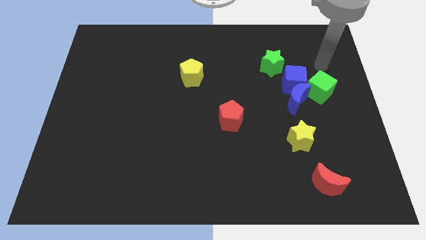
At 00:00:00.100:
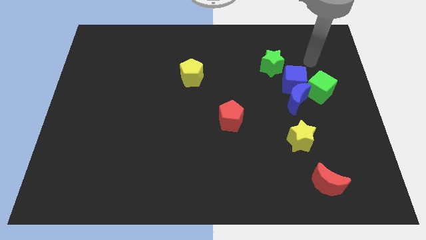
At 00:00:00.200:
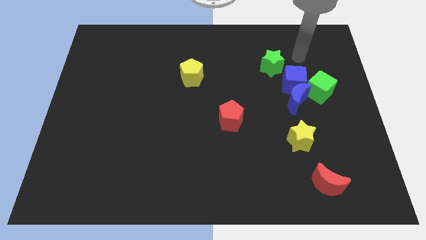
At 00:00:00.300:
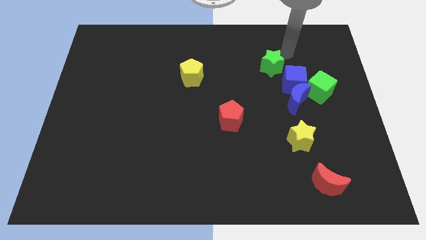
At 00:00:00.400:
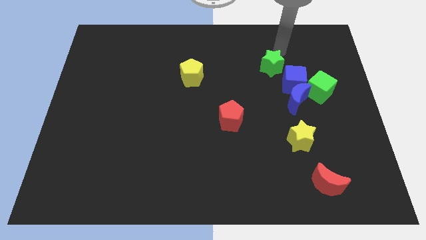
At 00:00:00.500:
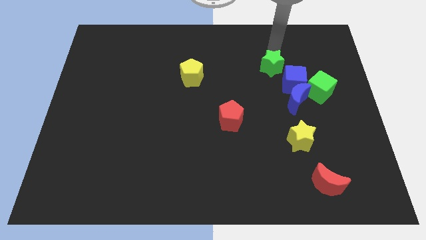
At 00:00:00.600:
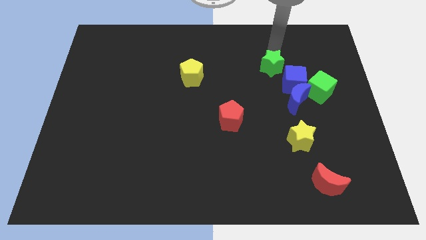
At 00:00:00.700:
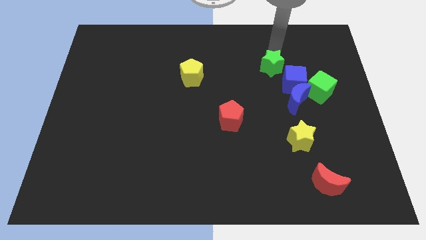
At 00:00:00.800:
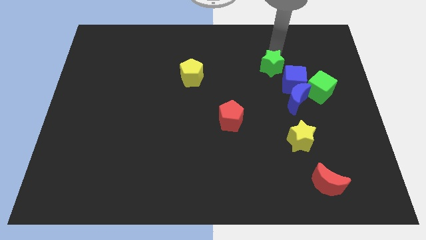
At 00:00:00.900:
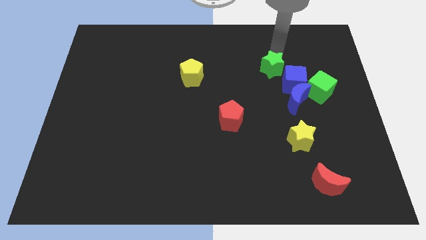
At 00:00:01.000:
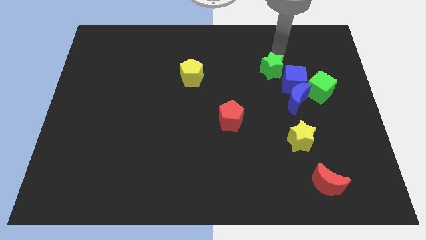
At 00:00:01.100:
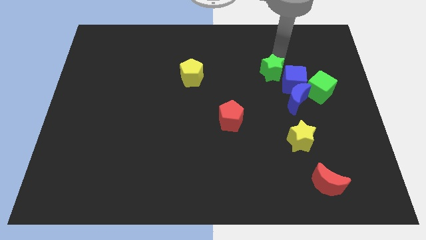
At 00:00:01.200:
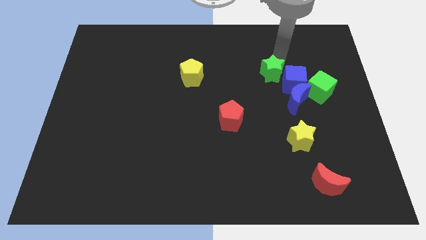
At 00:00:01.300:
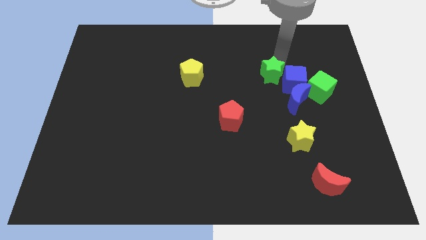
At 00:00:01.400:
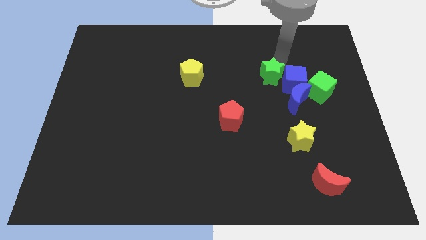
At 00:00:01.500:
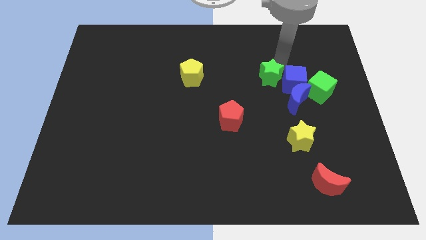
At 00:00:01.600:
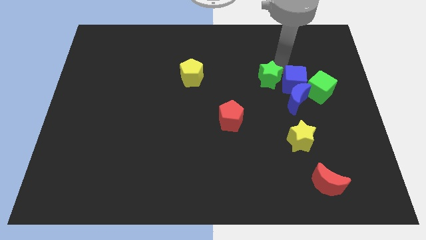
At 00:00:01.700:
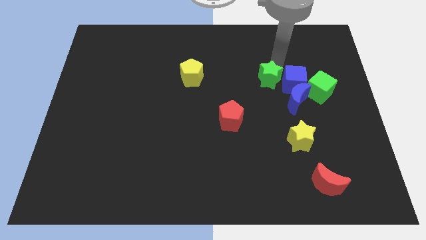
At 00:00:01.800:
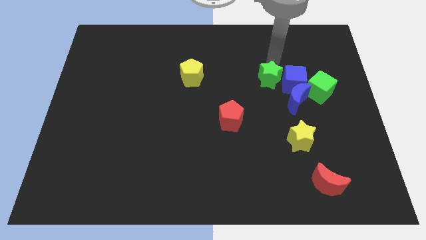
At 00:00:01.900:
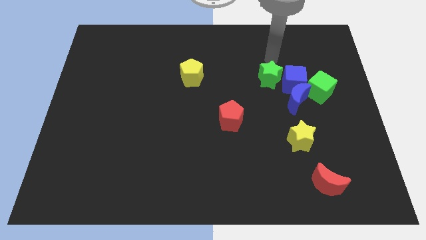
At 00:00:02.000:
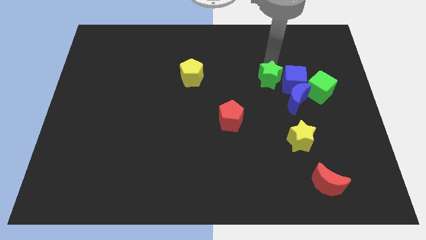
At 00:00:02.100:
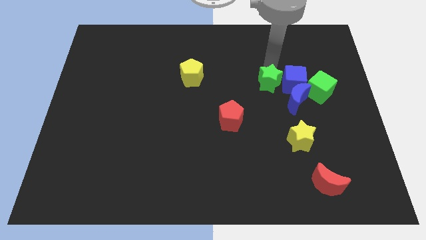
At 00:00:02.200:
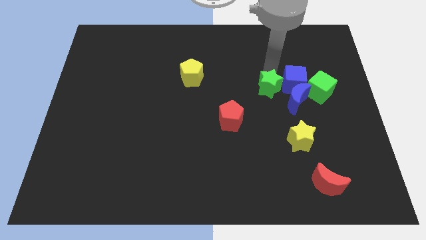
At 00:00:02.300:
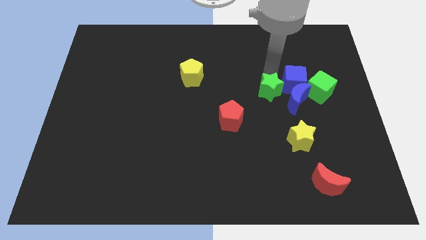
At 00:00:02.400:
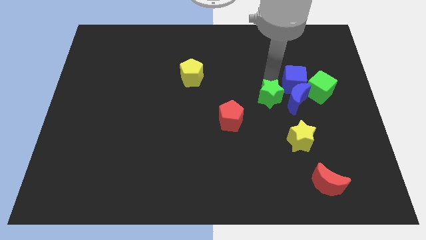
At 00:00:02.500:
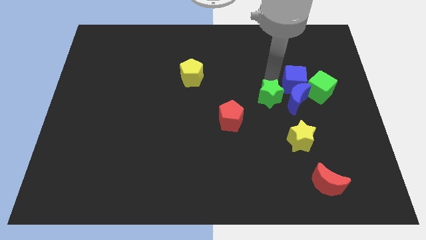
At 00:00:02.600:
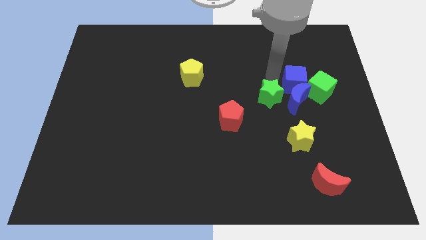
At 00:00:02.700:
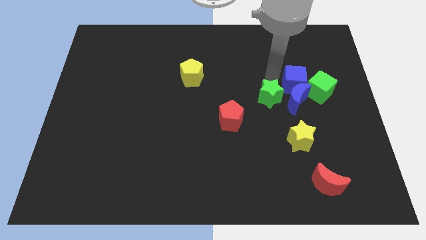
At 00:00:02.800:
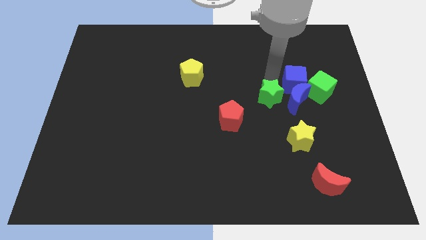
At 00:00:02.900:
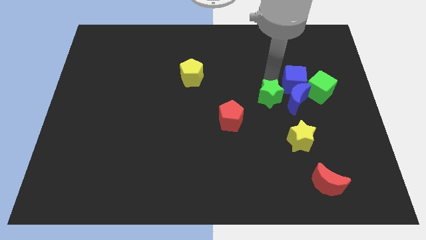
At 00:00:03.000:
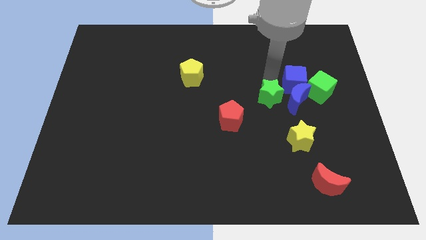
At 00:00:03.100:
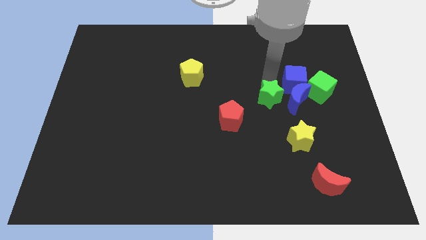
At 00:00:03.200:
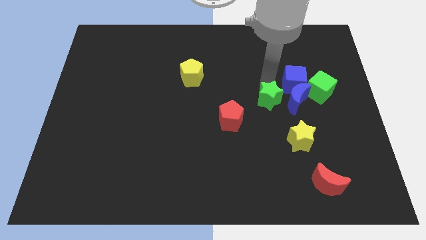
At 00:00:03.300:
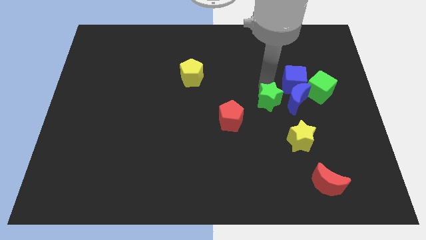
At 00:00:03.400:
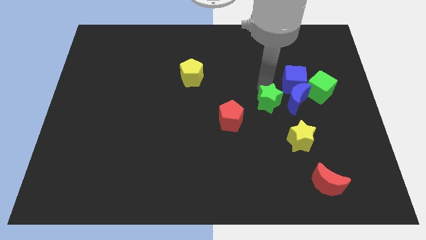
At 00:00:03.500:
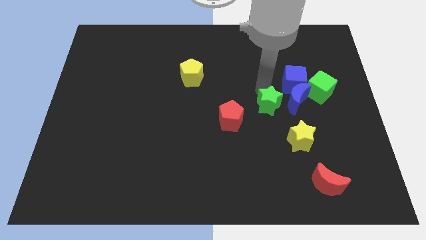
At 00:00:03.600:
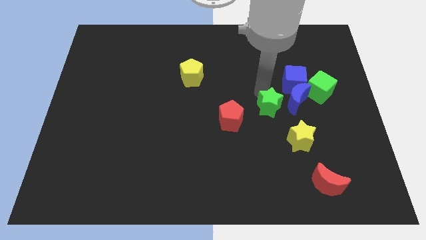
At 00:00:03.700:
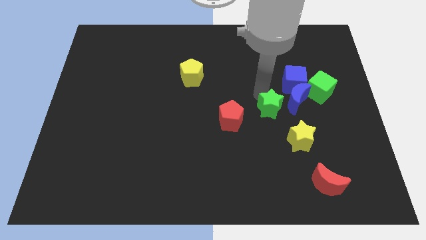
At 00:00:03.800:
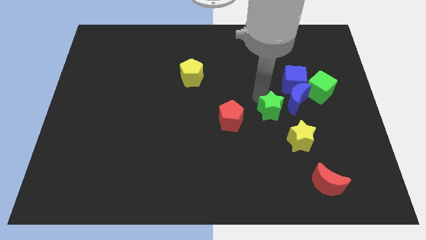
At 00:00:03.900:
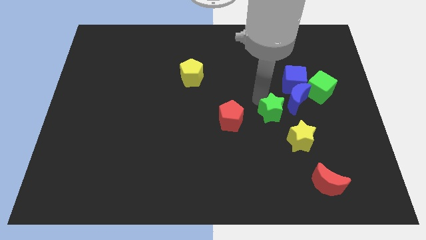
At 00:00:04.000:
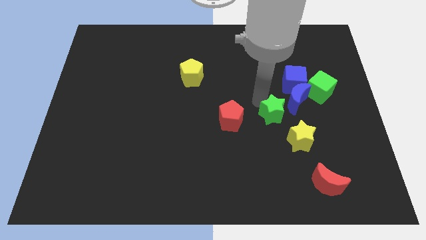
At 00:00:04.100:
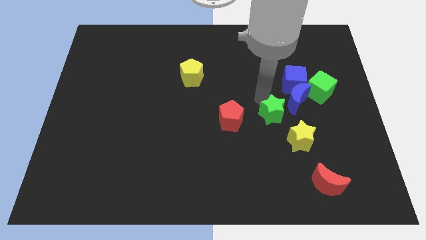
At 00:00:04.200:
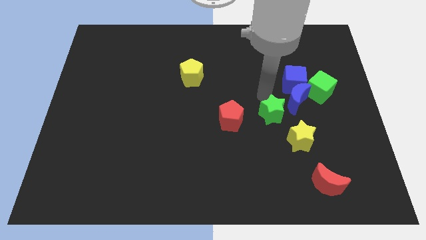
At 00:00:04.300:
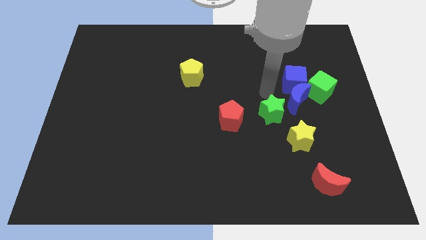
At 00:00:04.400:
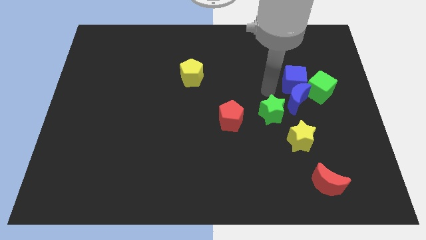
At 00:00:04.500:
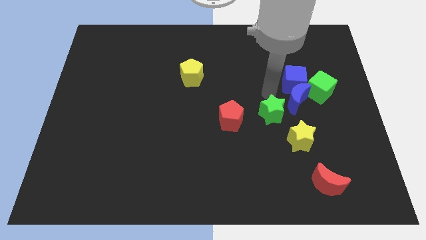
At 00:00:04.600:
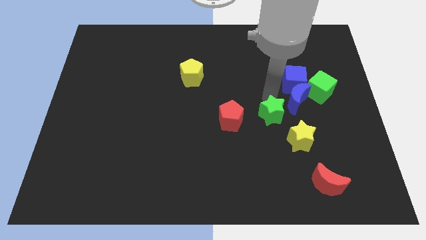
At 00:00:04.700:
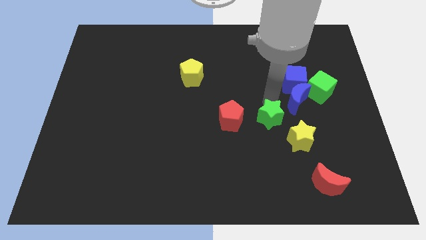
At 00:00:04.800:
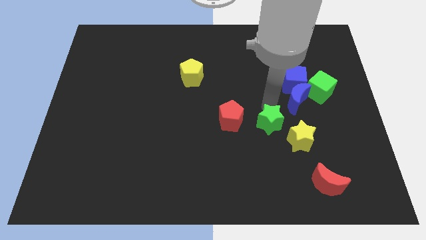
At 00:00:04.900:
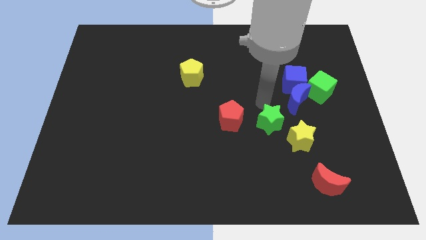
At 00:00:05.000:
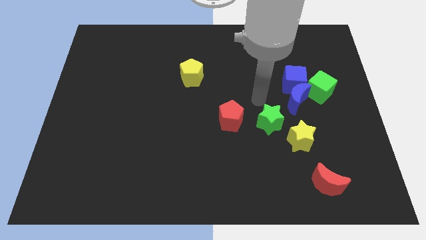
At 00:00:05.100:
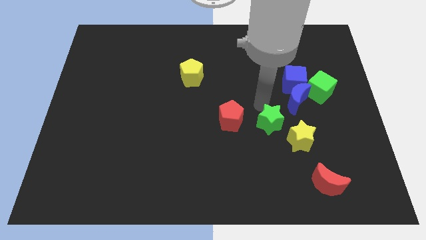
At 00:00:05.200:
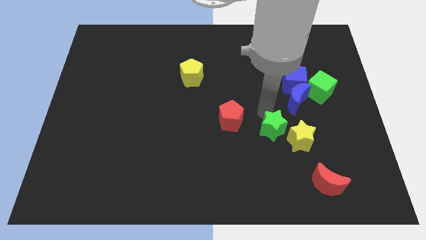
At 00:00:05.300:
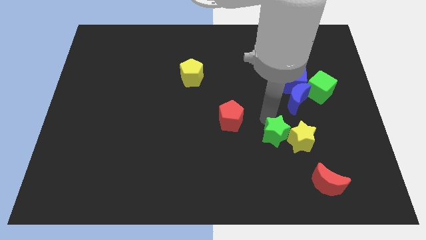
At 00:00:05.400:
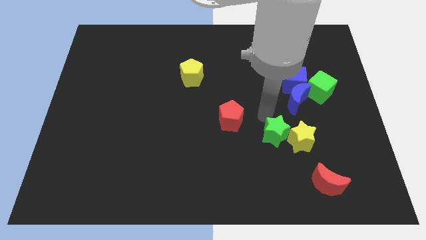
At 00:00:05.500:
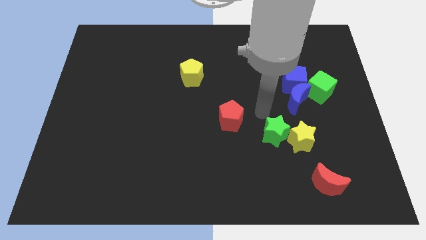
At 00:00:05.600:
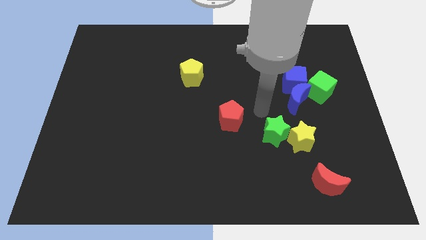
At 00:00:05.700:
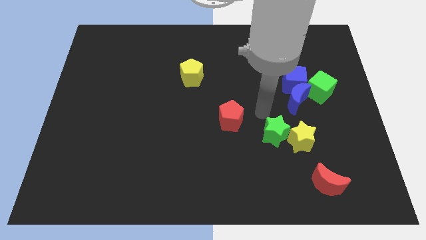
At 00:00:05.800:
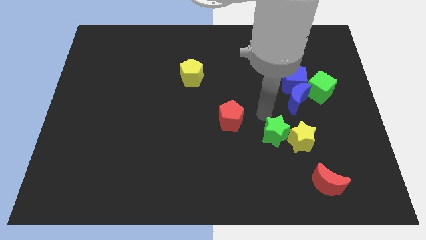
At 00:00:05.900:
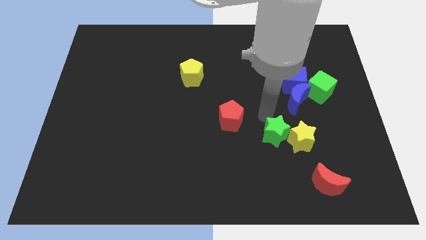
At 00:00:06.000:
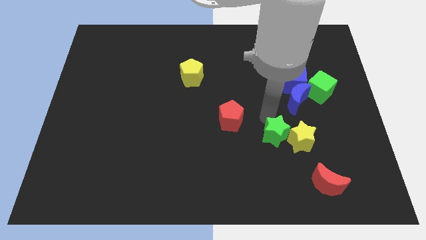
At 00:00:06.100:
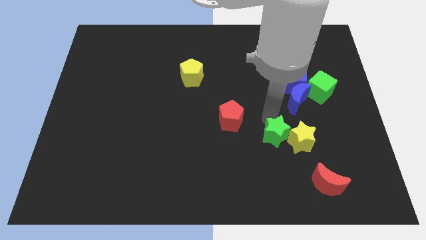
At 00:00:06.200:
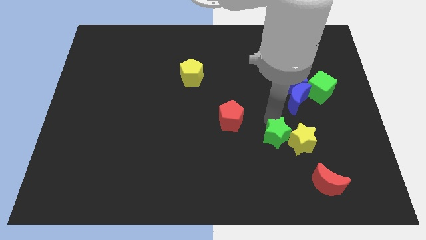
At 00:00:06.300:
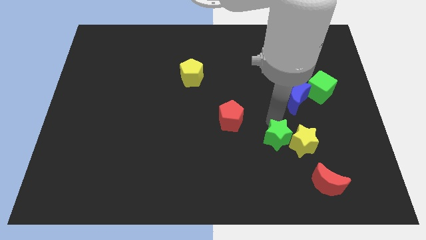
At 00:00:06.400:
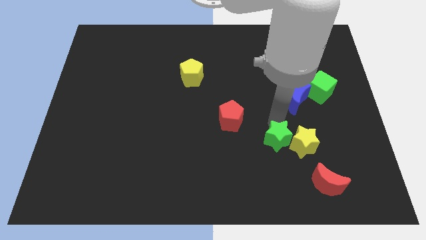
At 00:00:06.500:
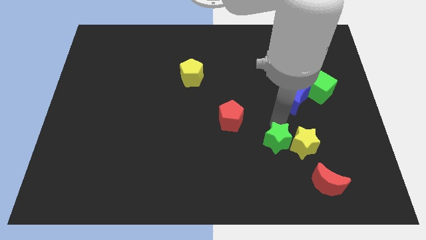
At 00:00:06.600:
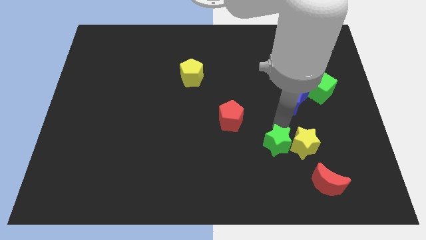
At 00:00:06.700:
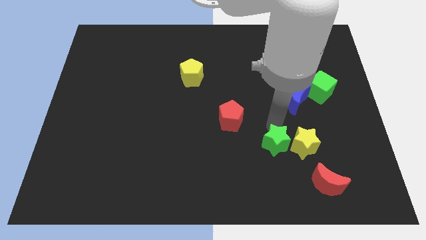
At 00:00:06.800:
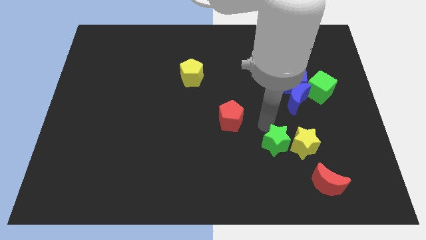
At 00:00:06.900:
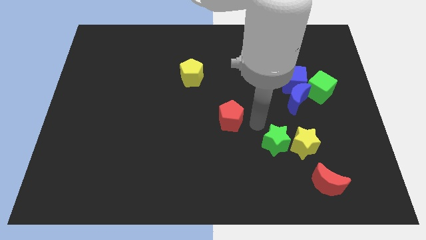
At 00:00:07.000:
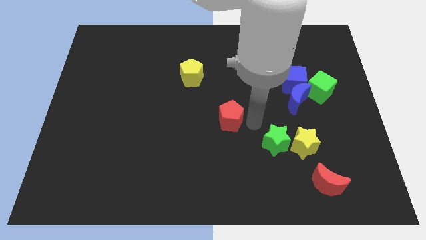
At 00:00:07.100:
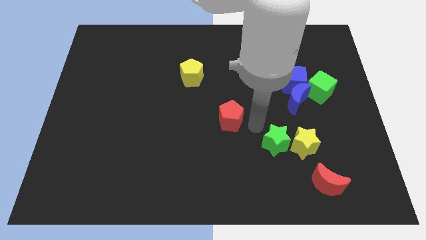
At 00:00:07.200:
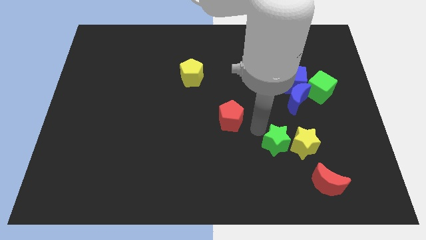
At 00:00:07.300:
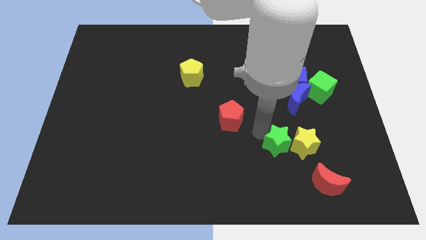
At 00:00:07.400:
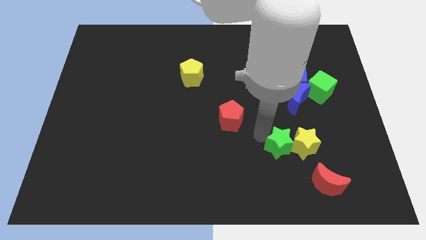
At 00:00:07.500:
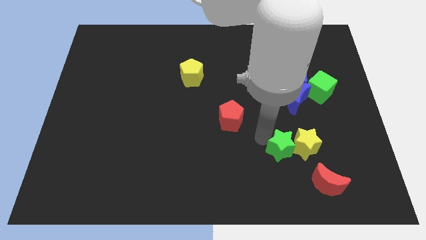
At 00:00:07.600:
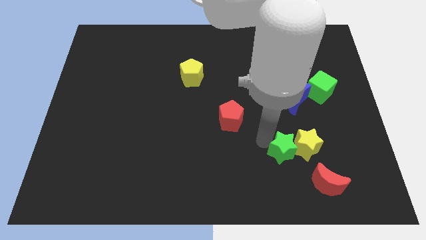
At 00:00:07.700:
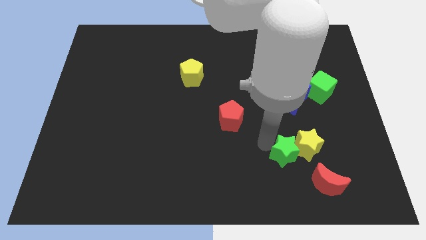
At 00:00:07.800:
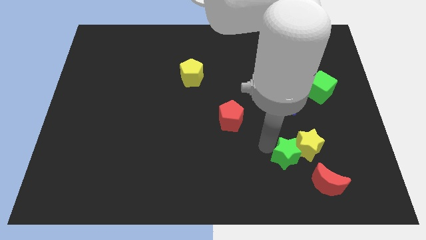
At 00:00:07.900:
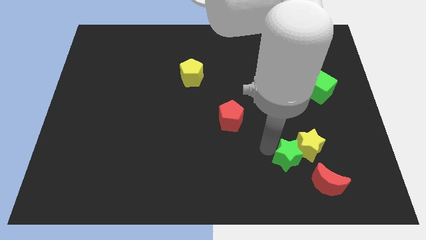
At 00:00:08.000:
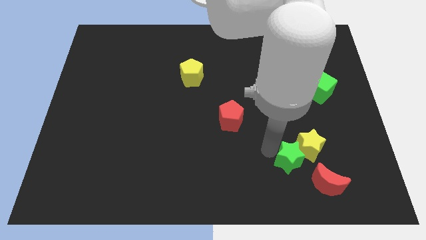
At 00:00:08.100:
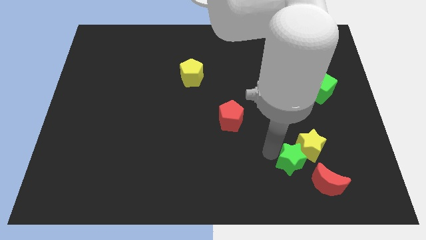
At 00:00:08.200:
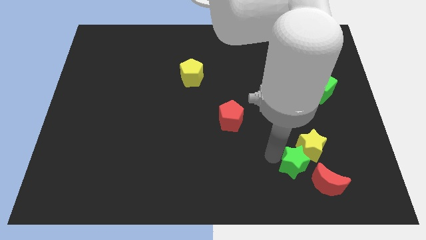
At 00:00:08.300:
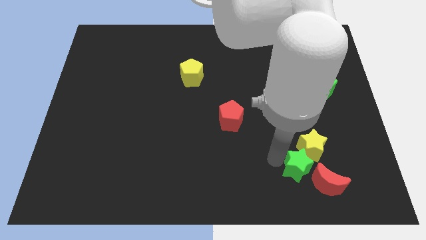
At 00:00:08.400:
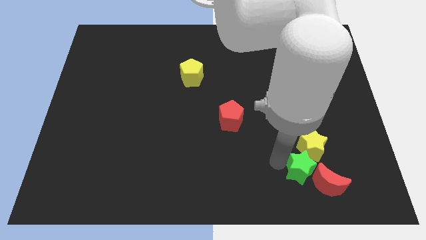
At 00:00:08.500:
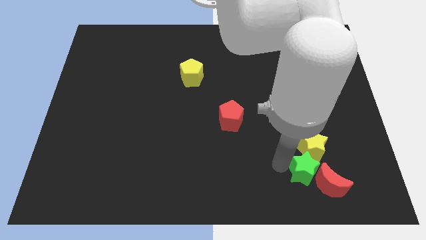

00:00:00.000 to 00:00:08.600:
push the green star to the red moon
